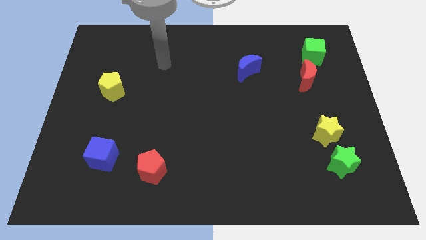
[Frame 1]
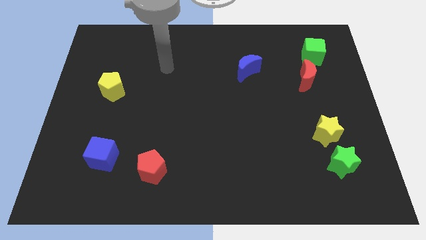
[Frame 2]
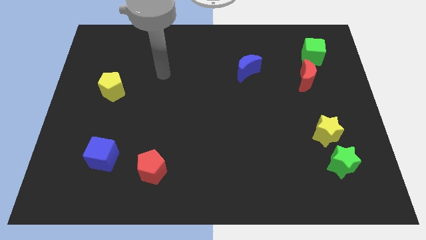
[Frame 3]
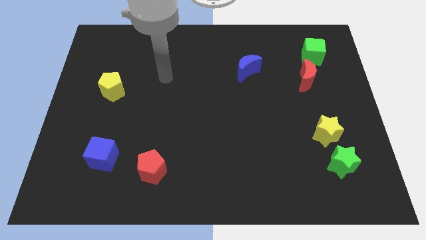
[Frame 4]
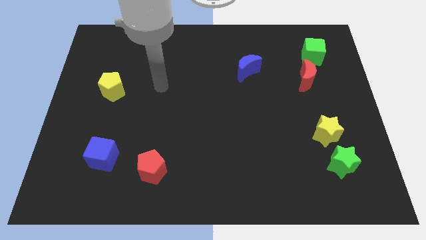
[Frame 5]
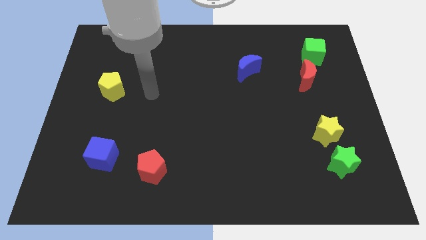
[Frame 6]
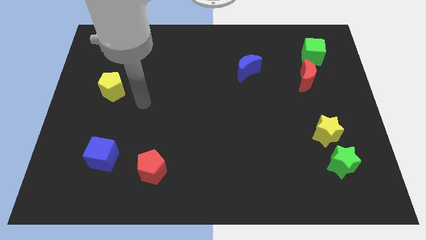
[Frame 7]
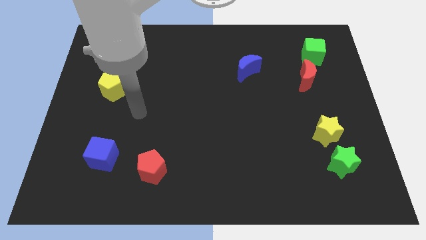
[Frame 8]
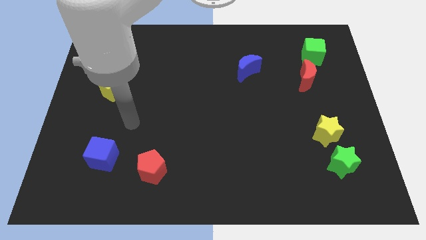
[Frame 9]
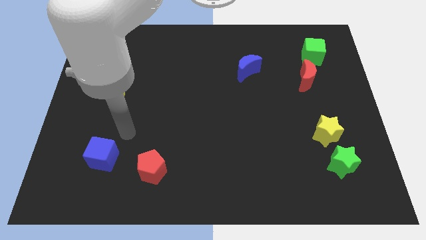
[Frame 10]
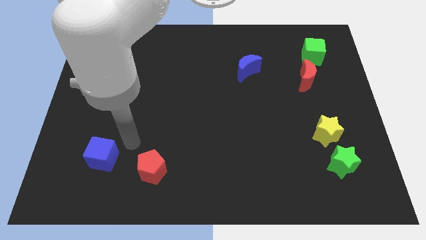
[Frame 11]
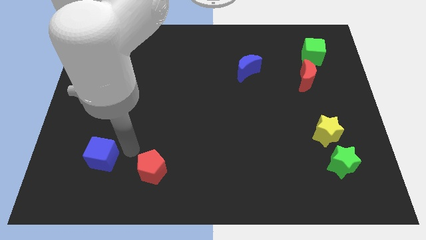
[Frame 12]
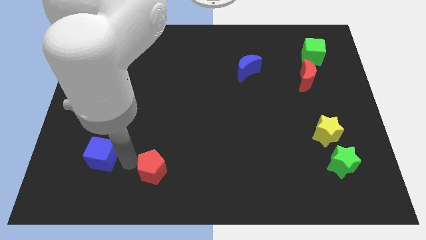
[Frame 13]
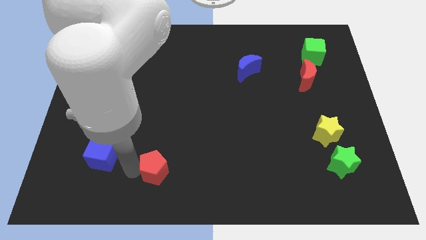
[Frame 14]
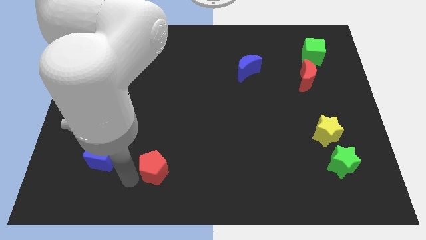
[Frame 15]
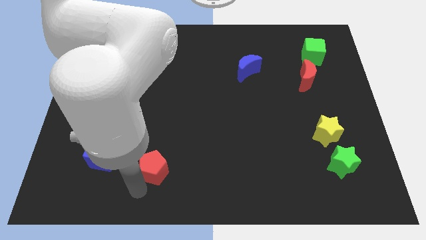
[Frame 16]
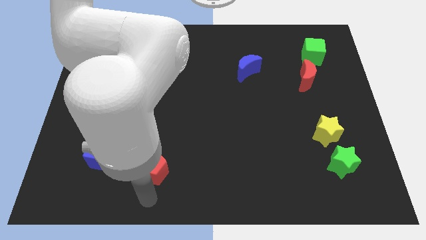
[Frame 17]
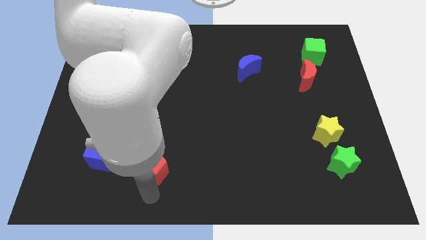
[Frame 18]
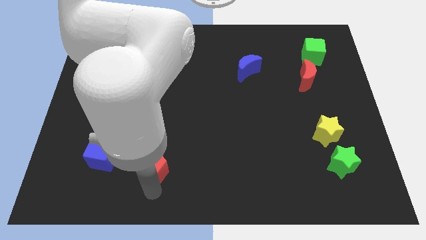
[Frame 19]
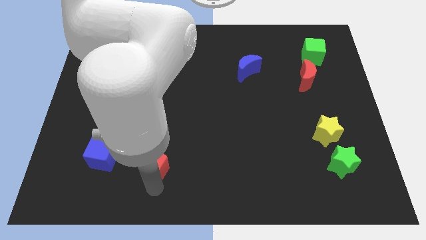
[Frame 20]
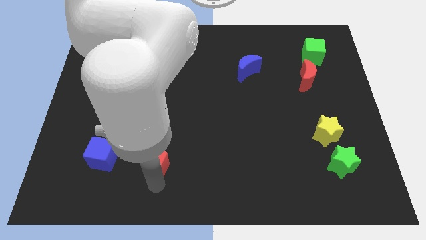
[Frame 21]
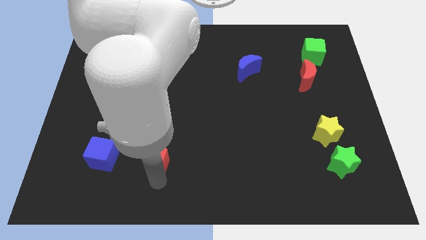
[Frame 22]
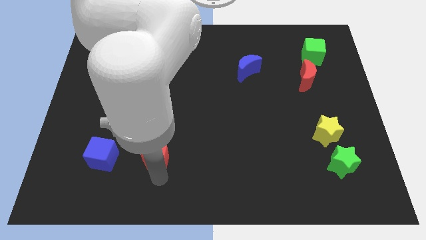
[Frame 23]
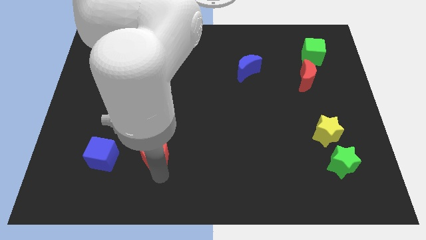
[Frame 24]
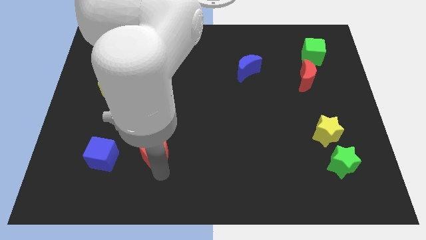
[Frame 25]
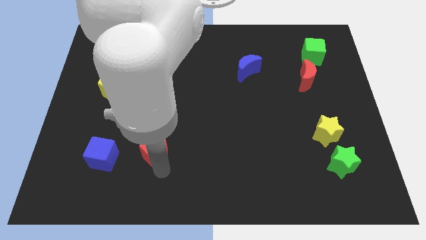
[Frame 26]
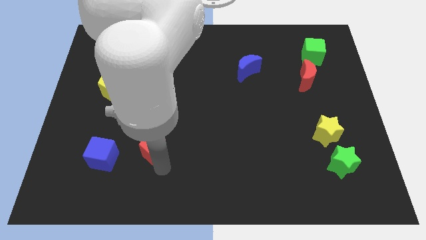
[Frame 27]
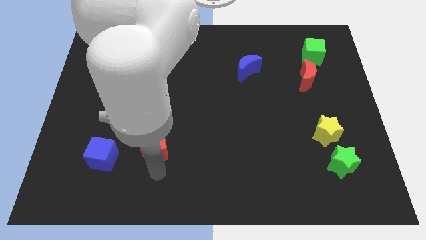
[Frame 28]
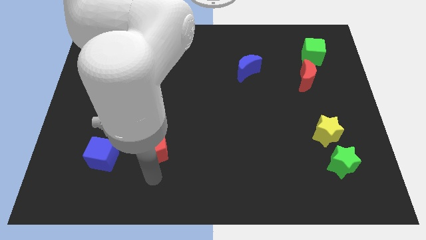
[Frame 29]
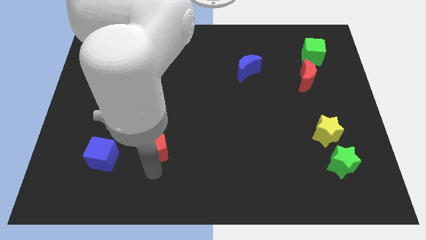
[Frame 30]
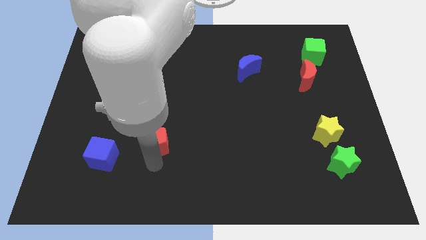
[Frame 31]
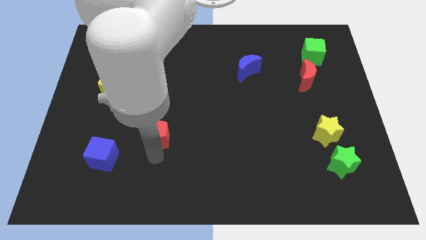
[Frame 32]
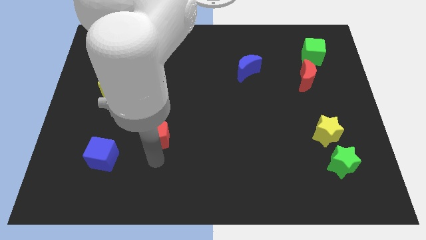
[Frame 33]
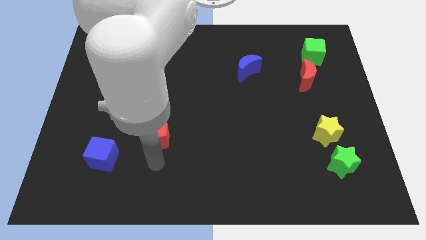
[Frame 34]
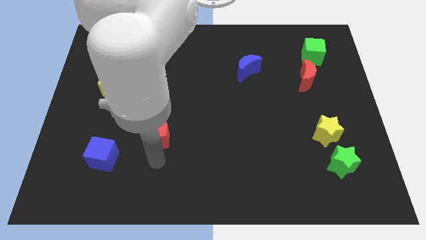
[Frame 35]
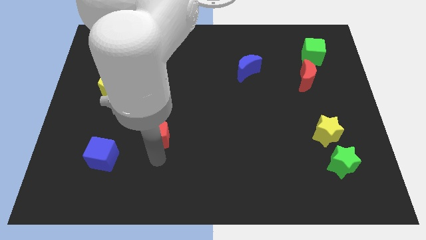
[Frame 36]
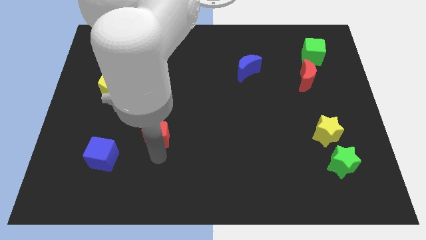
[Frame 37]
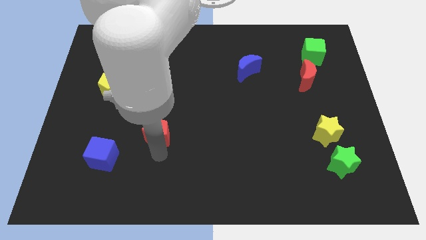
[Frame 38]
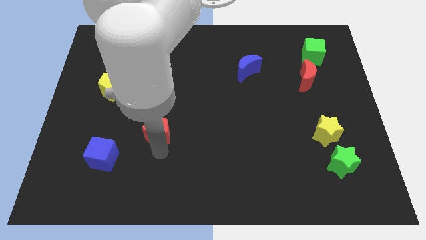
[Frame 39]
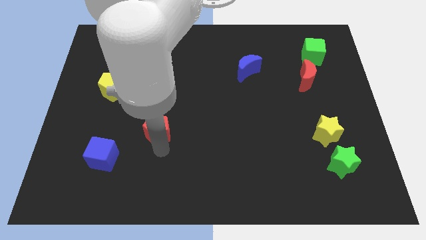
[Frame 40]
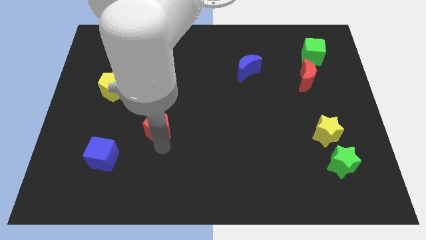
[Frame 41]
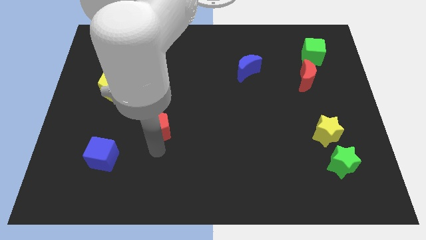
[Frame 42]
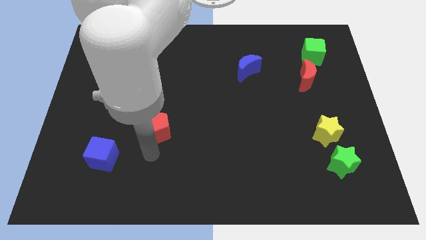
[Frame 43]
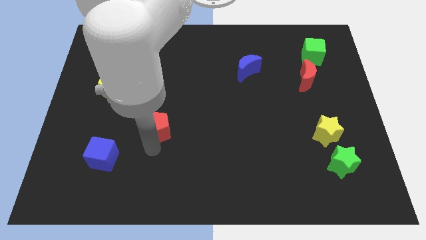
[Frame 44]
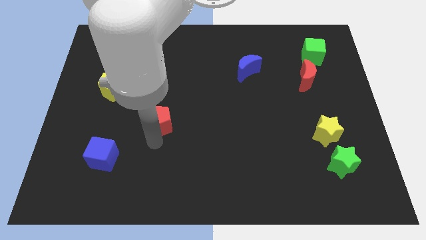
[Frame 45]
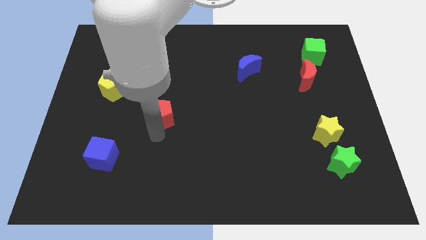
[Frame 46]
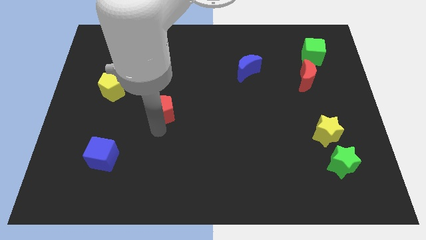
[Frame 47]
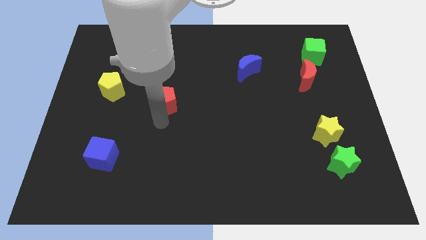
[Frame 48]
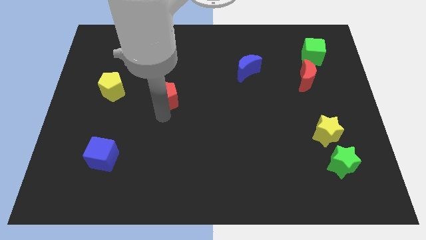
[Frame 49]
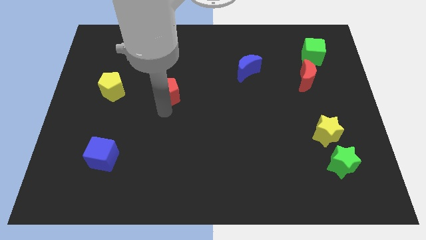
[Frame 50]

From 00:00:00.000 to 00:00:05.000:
slide the red pentagon upwards

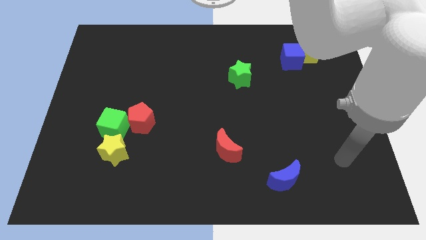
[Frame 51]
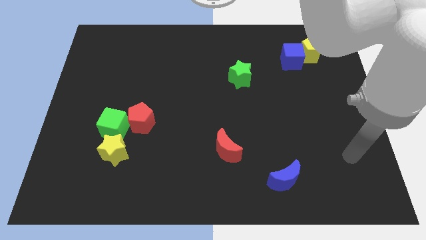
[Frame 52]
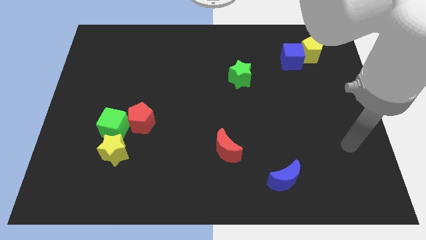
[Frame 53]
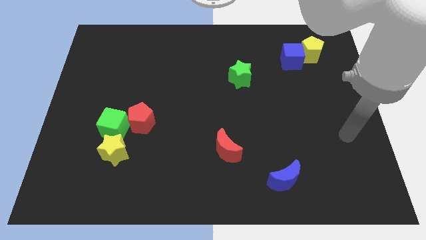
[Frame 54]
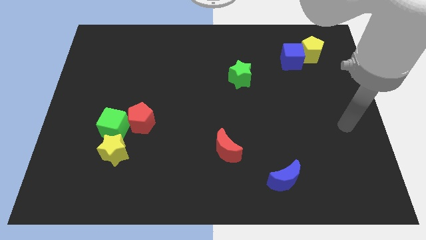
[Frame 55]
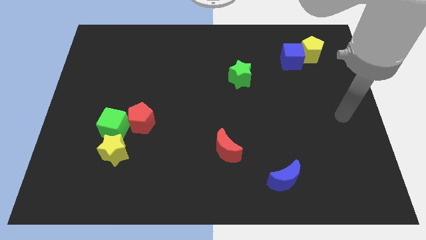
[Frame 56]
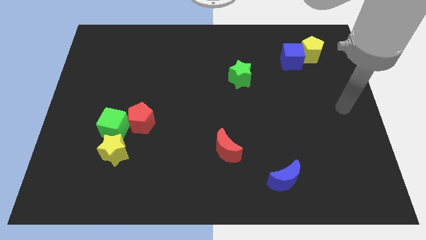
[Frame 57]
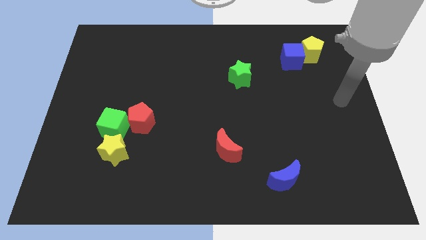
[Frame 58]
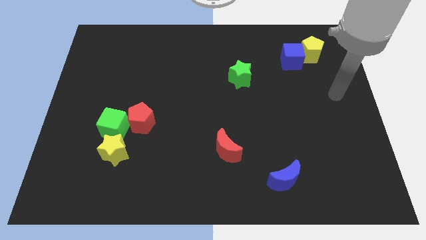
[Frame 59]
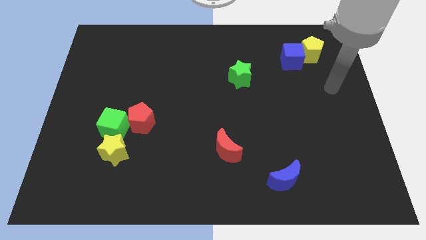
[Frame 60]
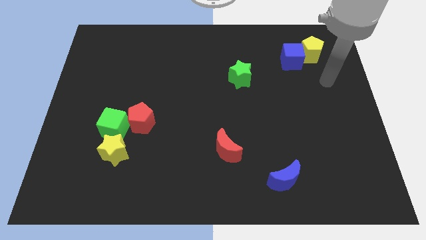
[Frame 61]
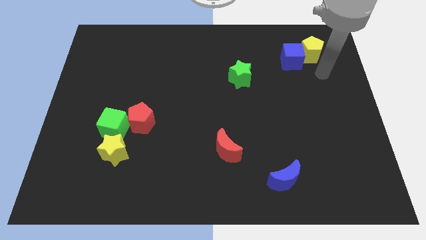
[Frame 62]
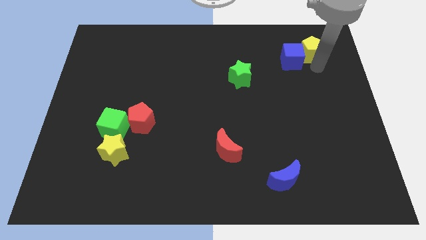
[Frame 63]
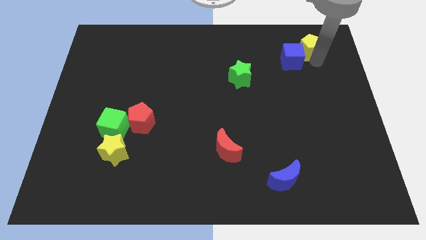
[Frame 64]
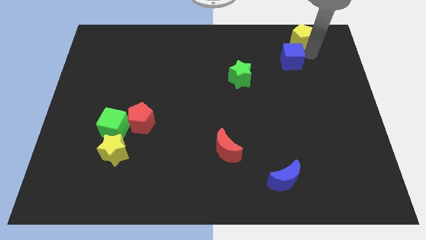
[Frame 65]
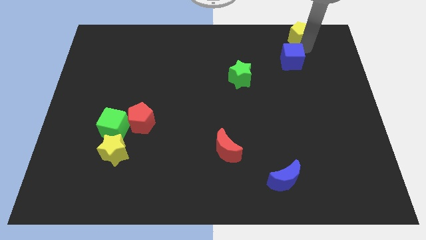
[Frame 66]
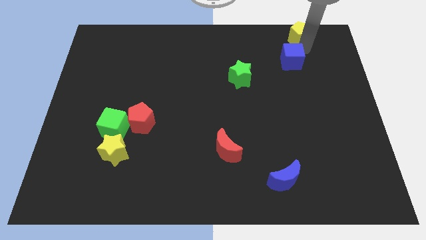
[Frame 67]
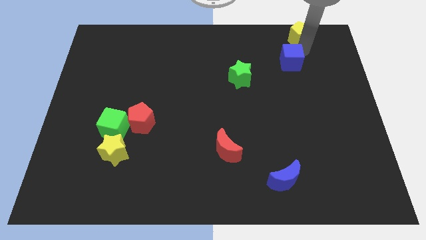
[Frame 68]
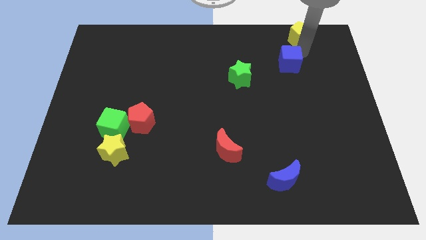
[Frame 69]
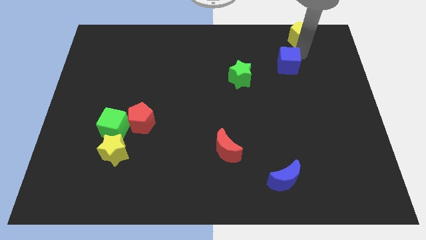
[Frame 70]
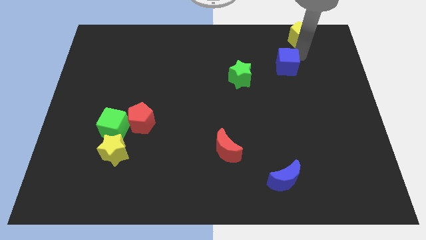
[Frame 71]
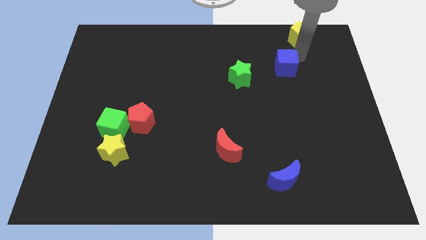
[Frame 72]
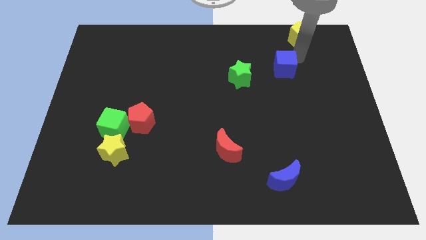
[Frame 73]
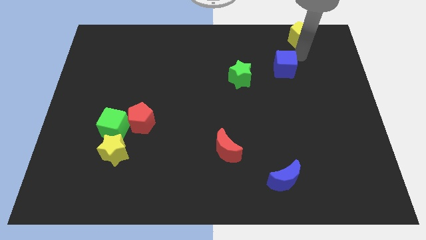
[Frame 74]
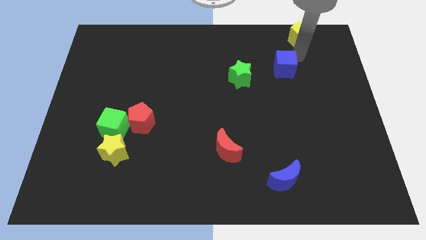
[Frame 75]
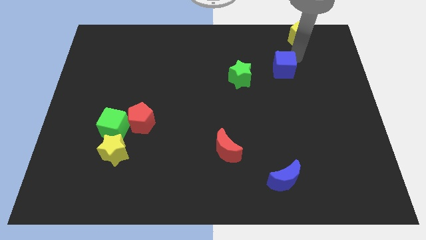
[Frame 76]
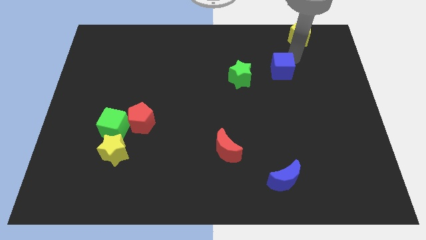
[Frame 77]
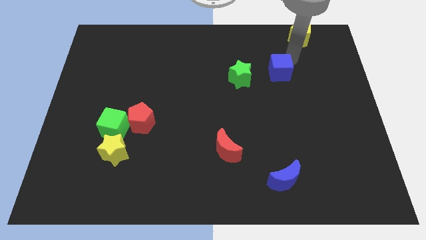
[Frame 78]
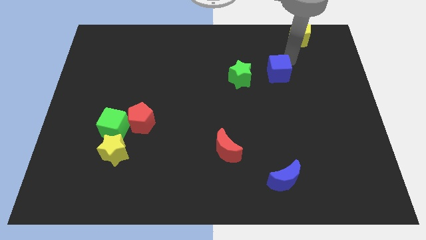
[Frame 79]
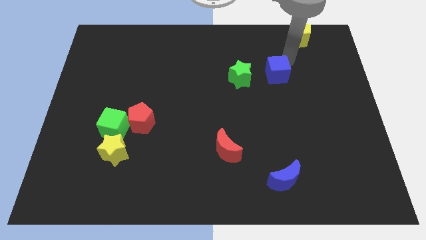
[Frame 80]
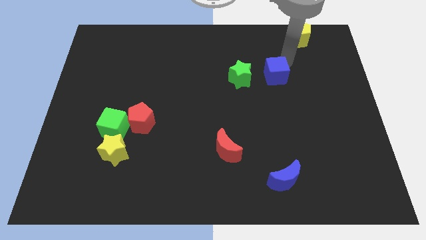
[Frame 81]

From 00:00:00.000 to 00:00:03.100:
move the blue cube slightly down and left diagonally

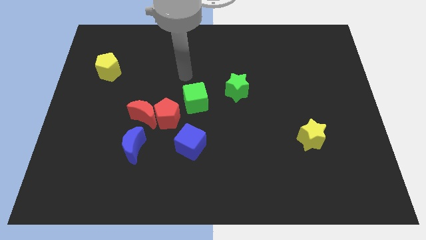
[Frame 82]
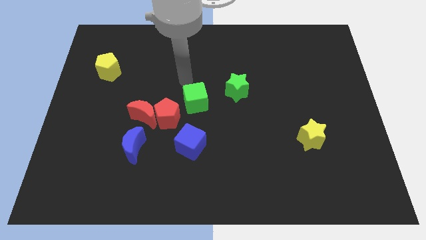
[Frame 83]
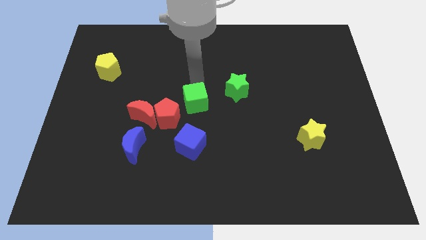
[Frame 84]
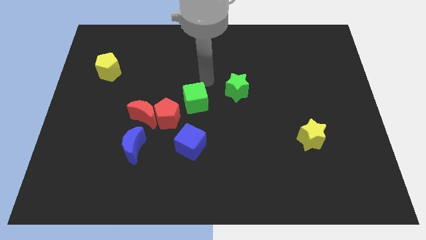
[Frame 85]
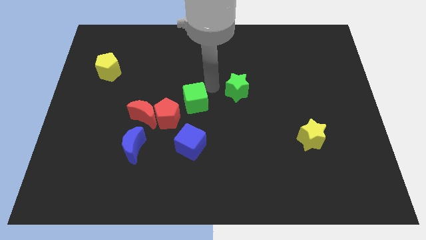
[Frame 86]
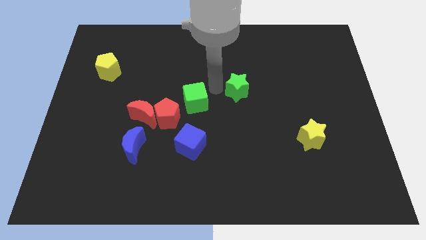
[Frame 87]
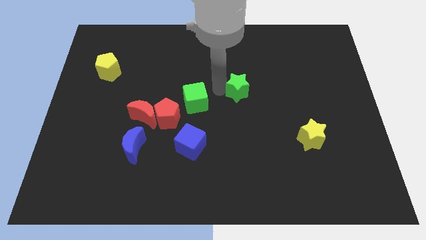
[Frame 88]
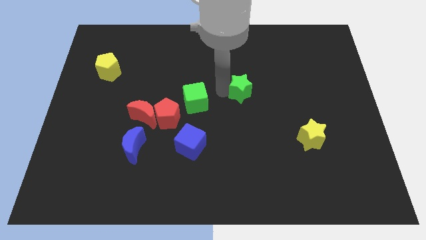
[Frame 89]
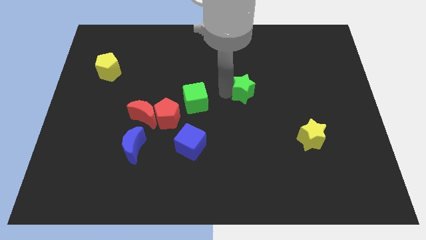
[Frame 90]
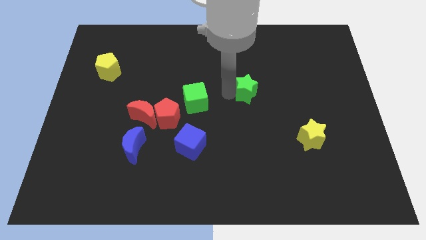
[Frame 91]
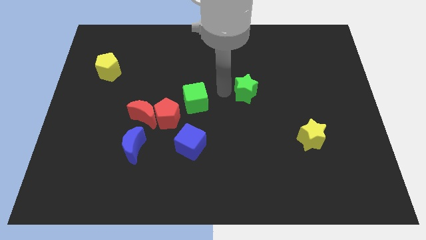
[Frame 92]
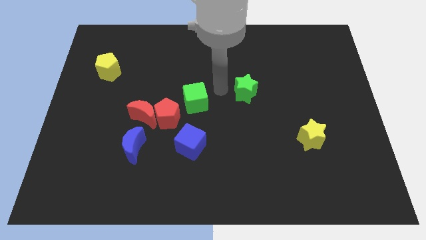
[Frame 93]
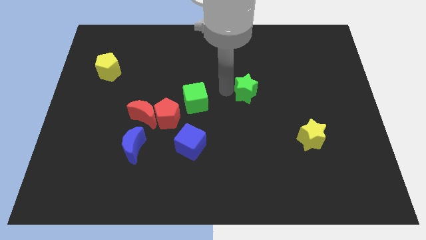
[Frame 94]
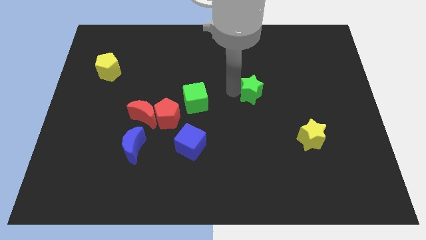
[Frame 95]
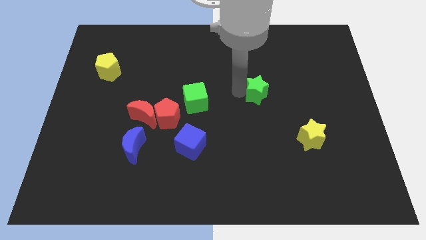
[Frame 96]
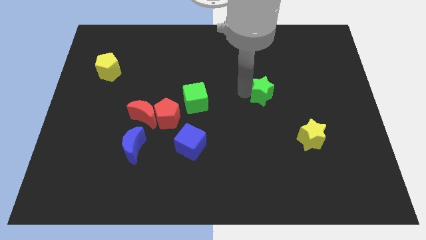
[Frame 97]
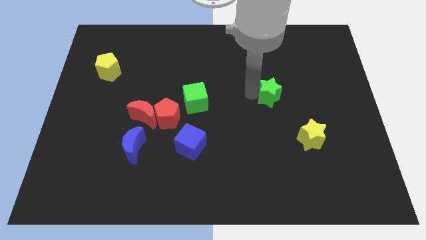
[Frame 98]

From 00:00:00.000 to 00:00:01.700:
move the green star slightly right
